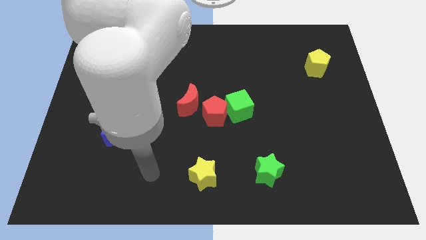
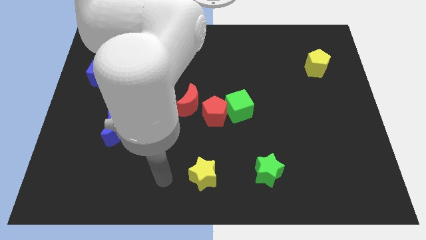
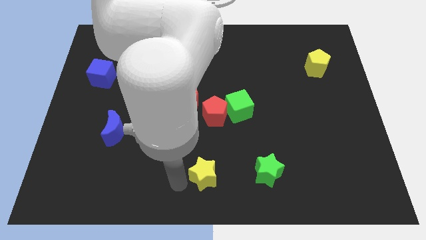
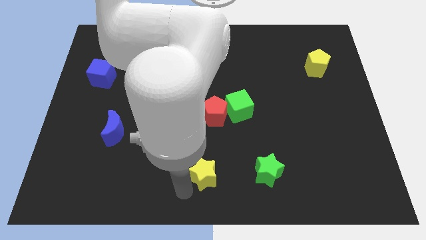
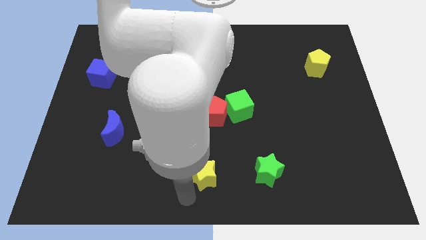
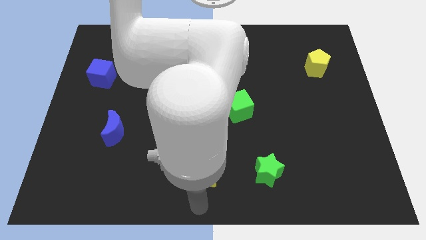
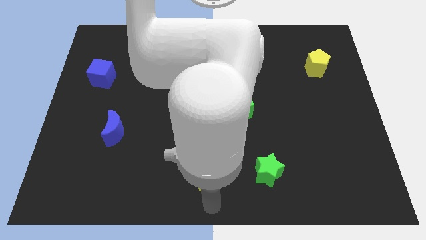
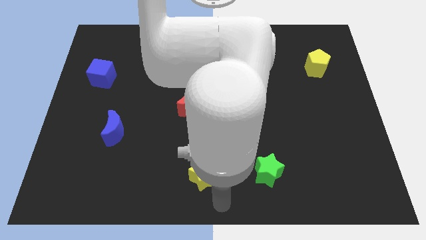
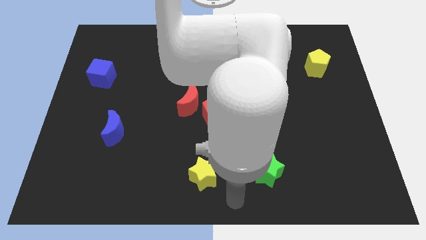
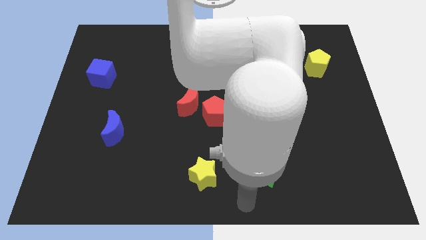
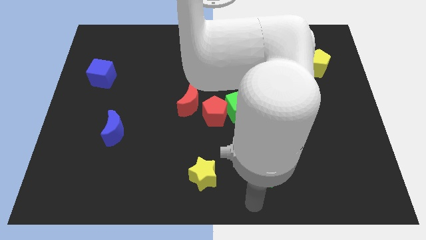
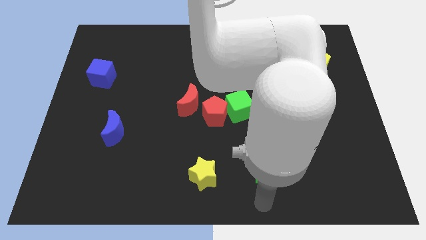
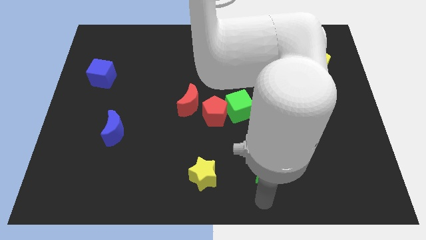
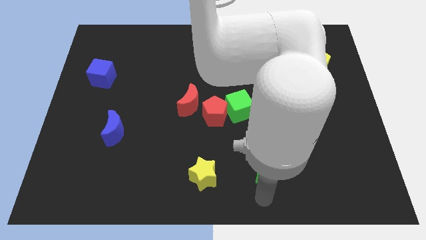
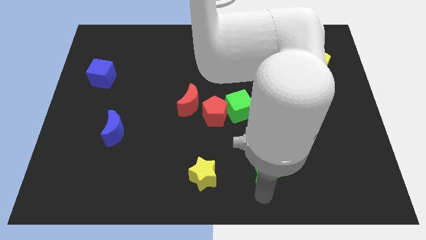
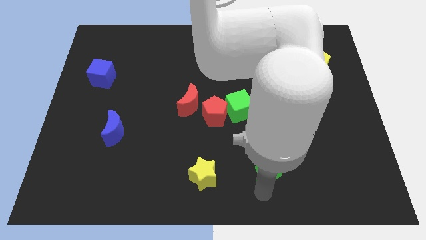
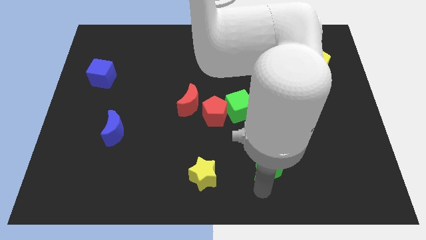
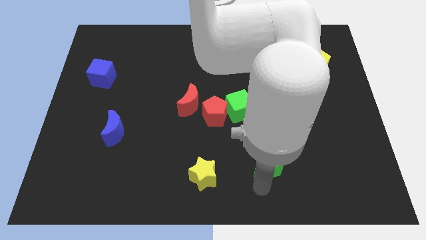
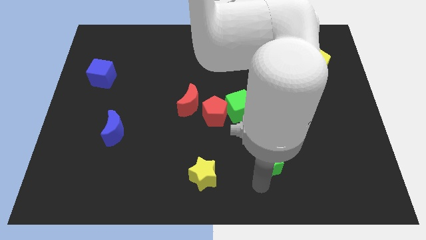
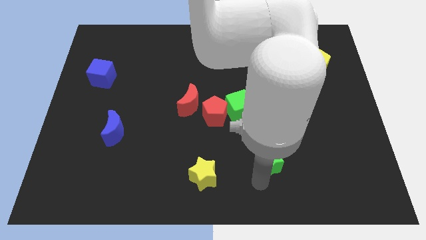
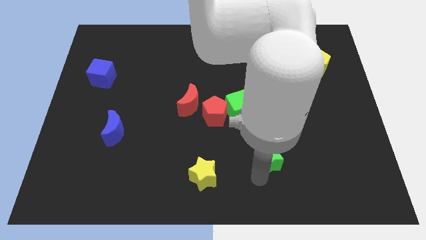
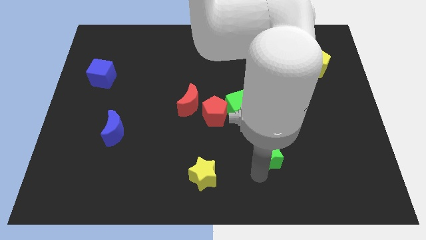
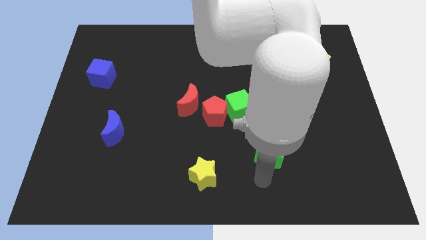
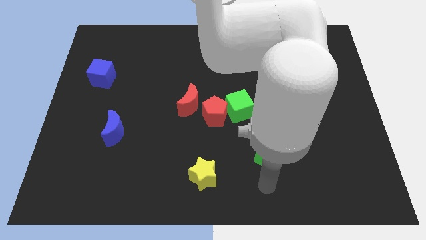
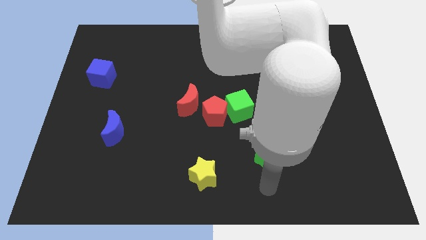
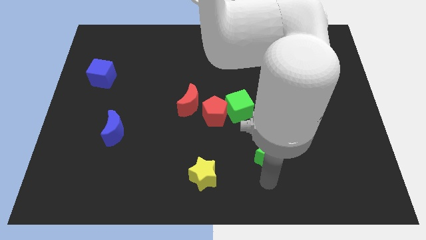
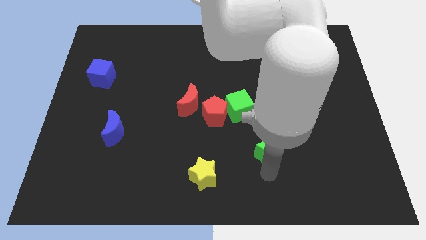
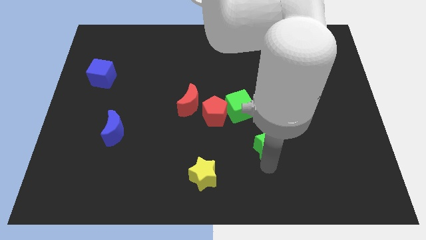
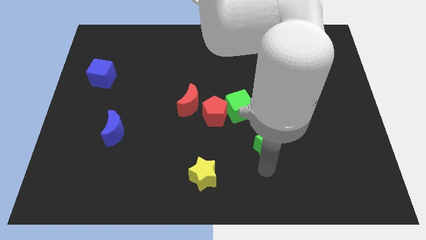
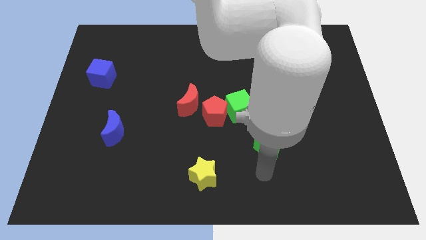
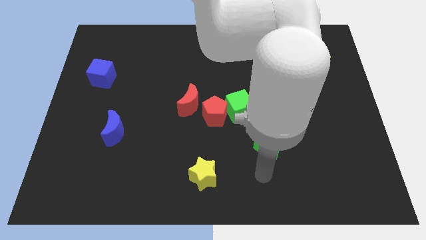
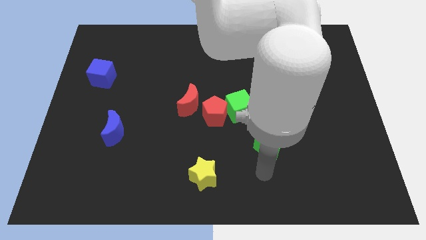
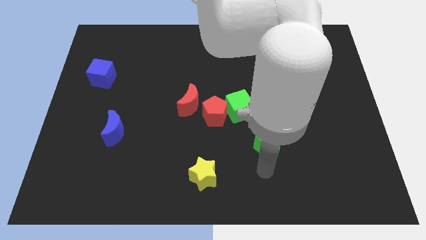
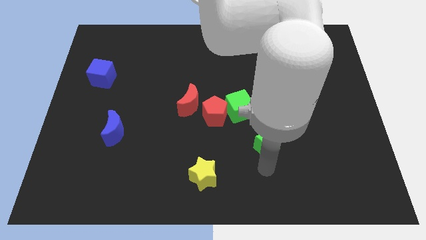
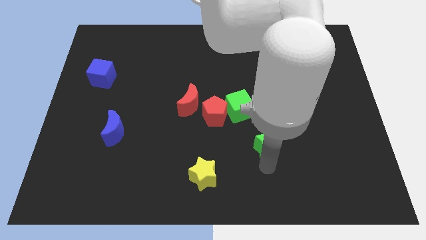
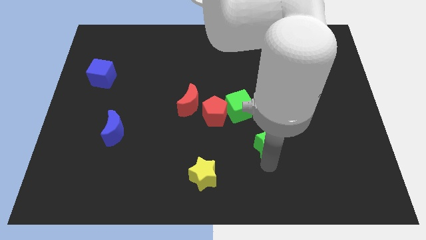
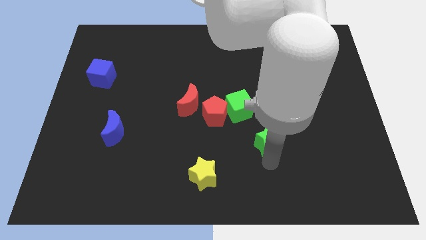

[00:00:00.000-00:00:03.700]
slide the green star a little upwards

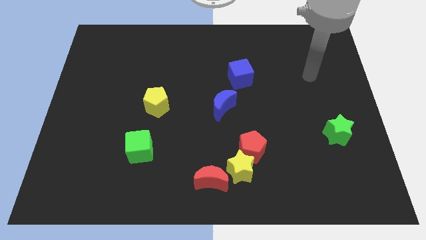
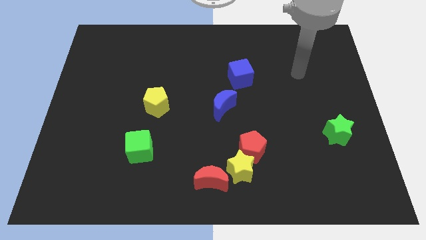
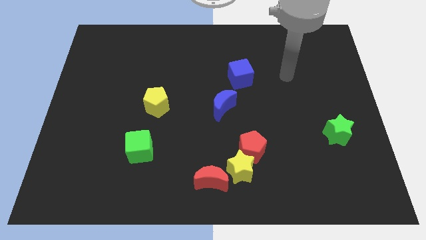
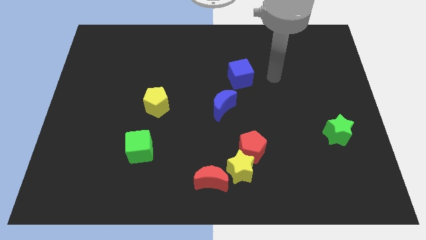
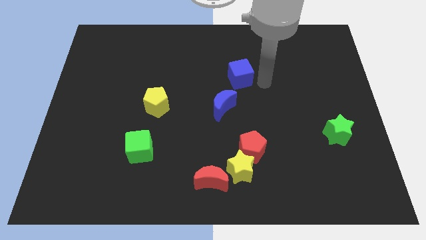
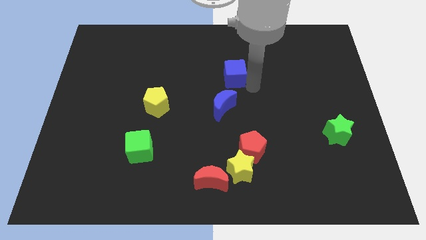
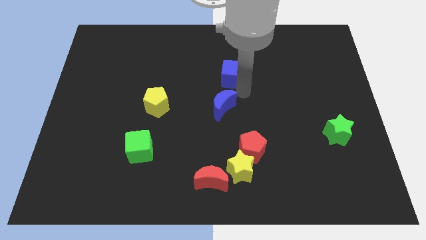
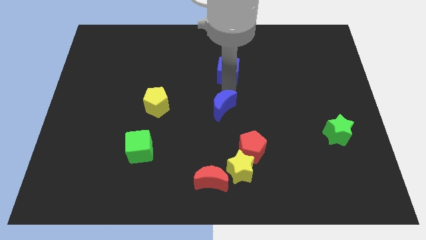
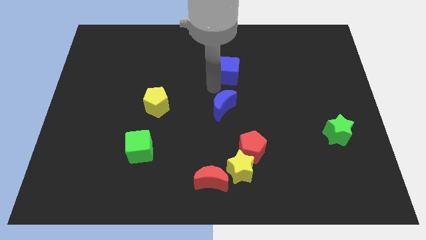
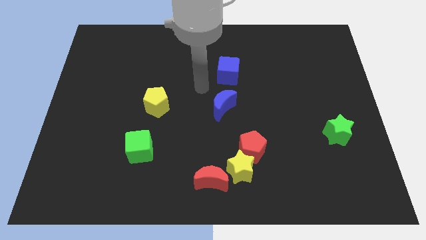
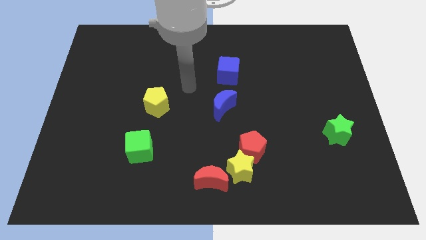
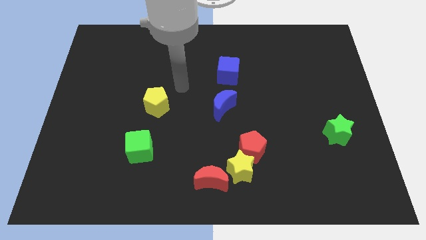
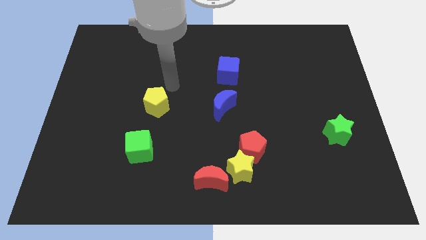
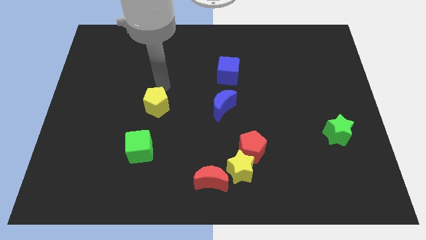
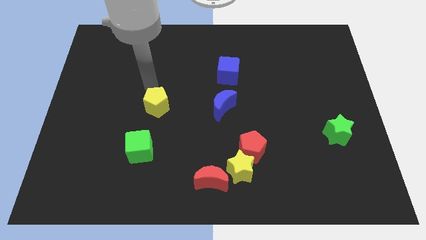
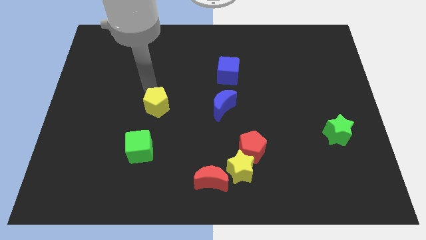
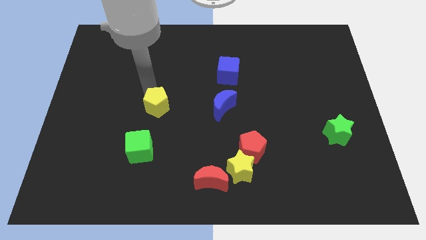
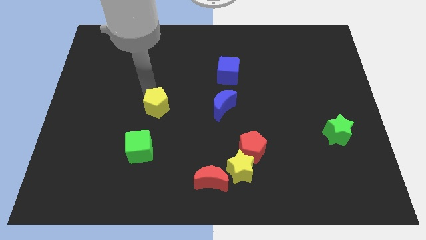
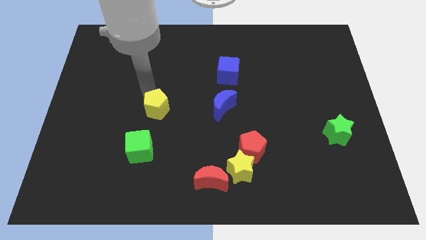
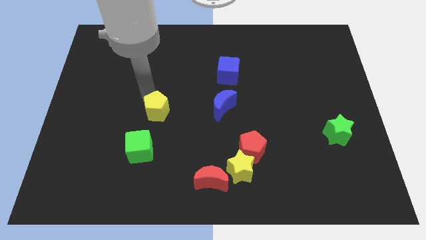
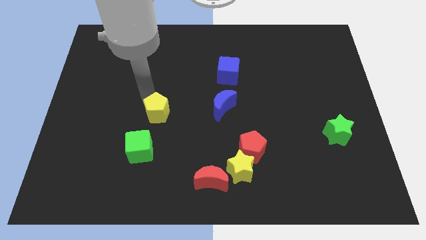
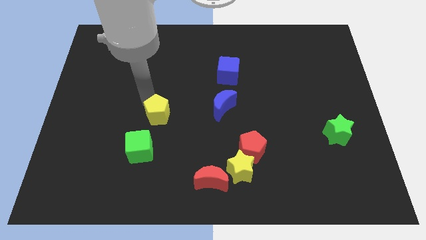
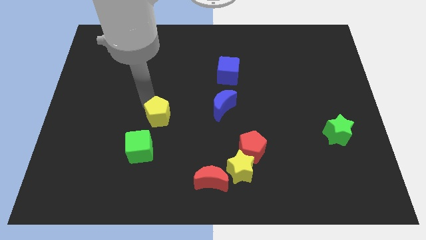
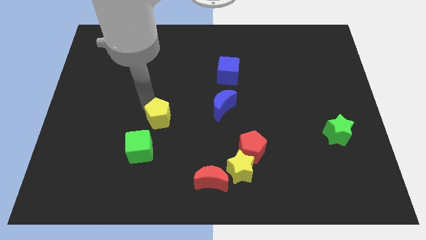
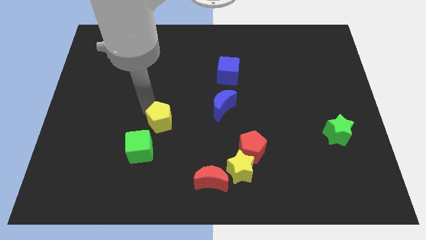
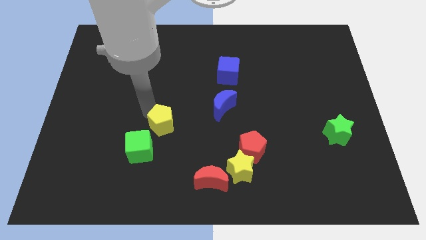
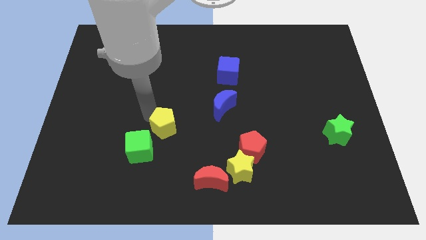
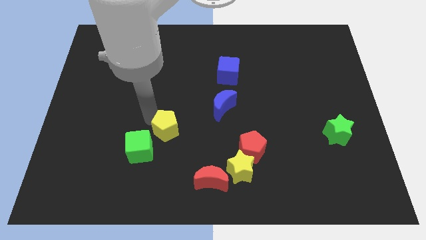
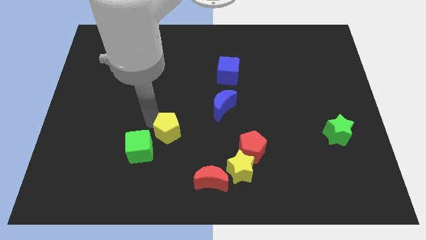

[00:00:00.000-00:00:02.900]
push the yellow pentagon a little bit down and then right

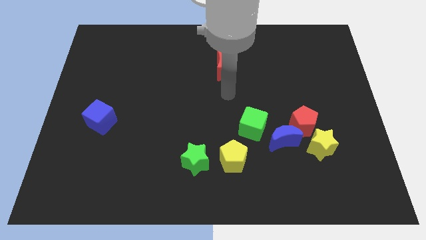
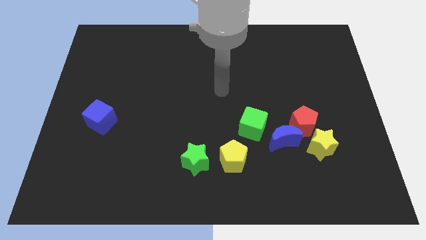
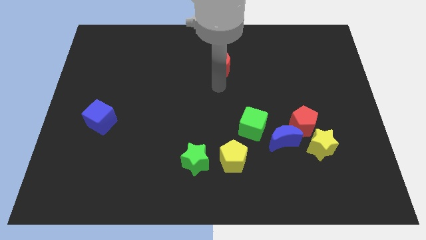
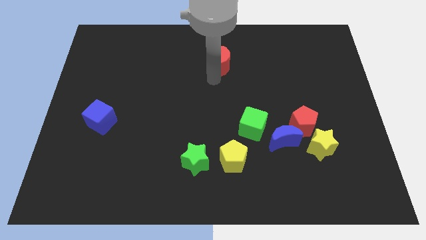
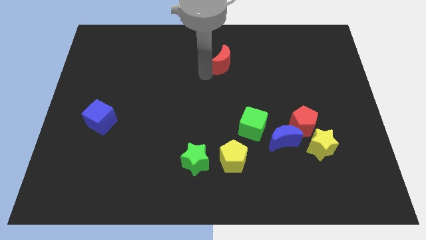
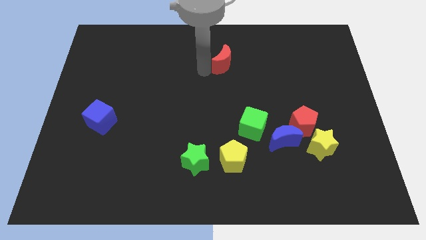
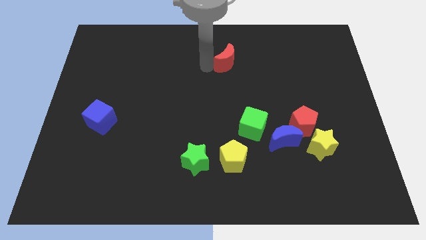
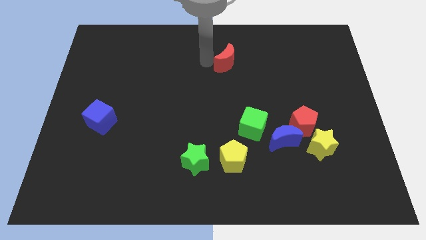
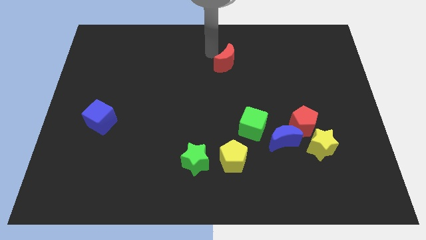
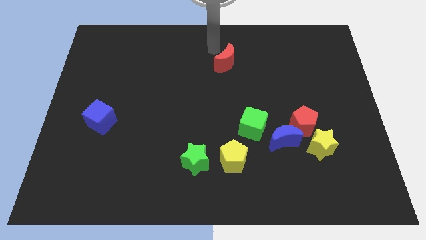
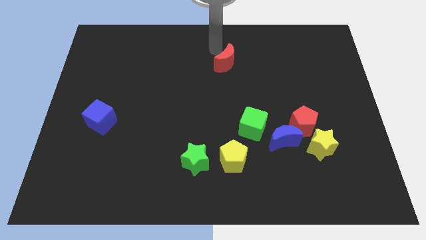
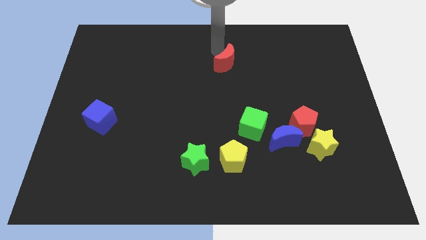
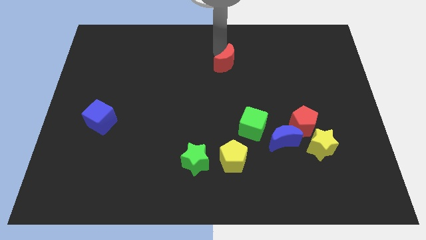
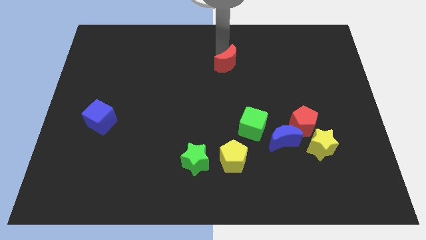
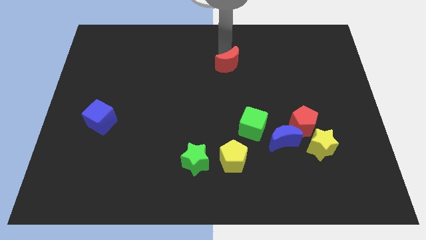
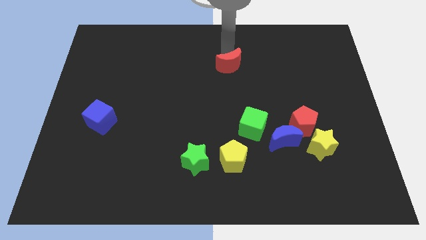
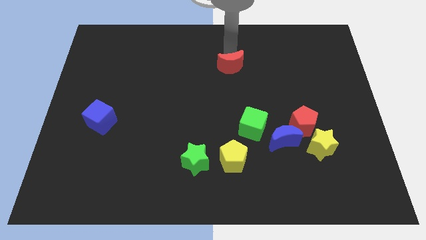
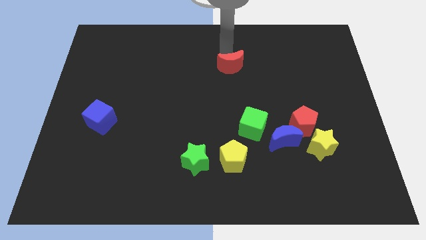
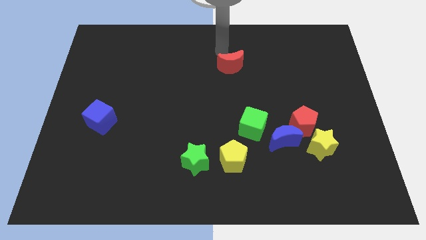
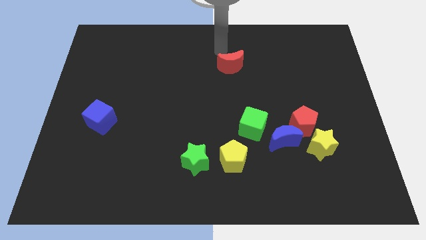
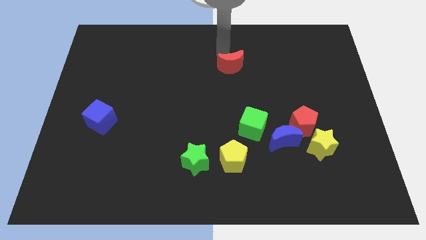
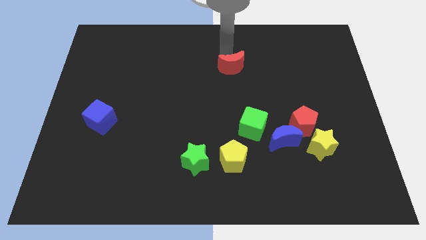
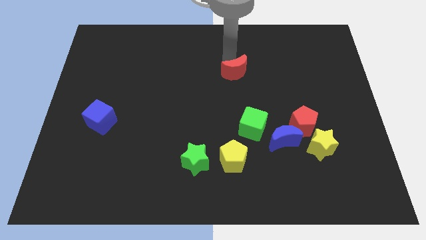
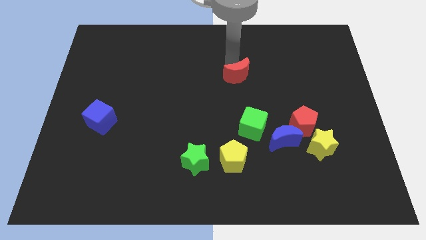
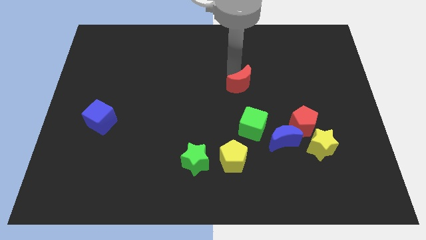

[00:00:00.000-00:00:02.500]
slightly slide the red moon down and then right
